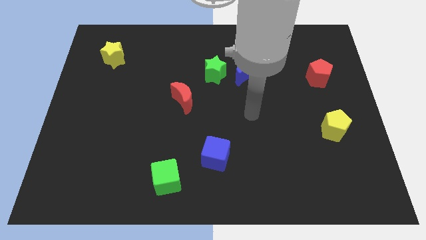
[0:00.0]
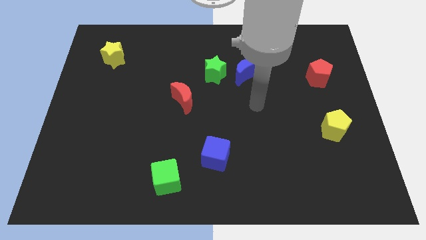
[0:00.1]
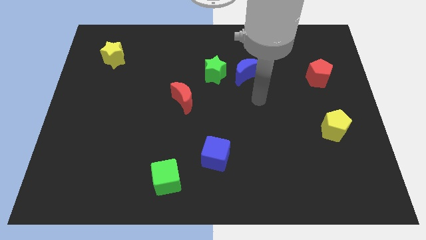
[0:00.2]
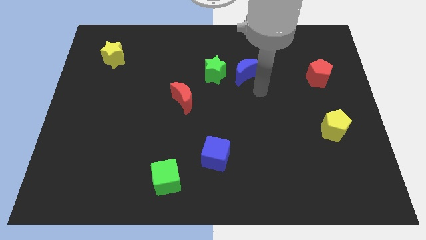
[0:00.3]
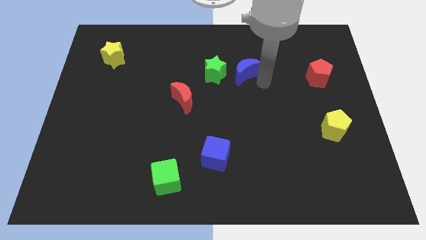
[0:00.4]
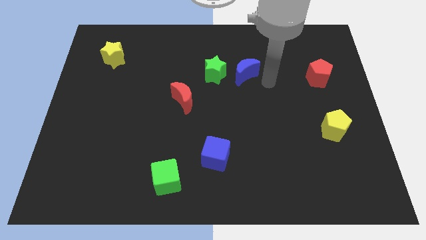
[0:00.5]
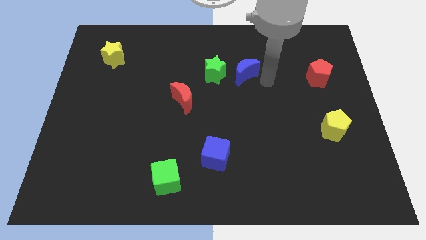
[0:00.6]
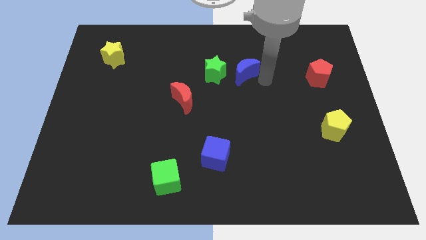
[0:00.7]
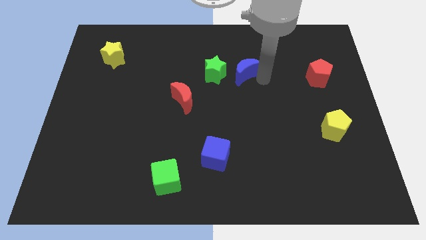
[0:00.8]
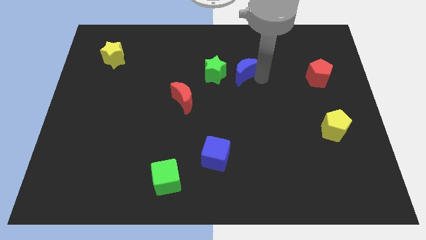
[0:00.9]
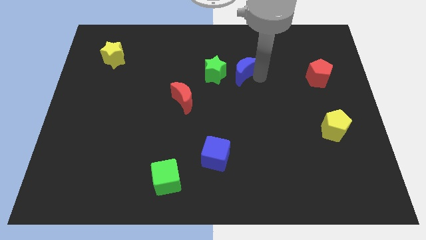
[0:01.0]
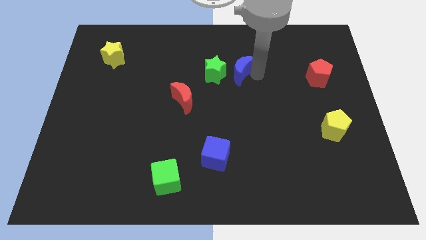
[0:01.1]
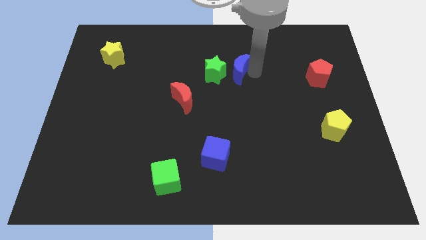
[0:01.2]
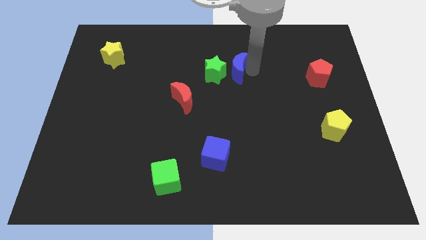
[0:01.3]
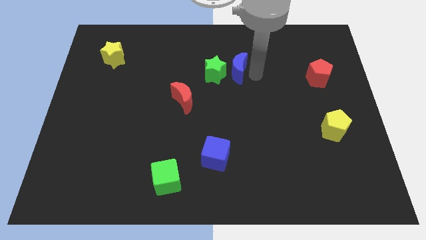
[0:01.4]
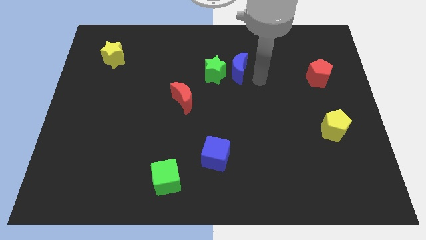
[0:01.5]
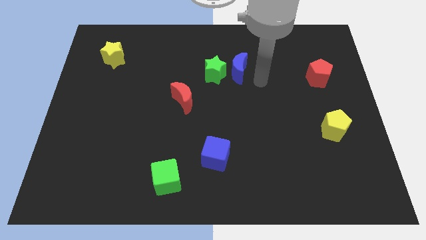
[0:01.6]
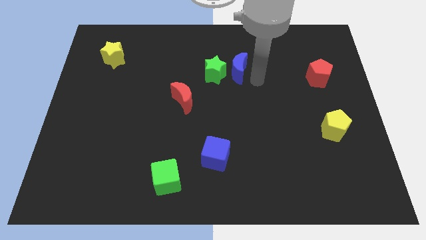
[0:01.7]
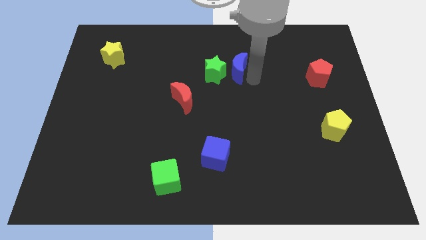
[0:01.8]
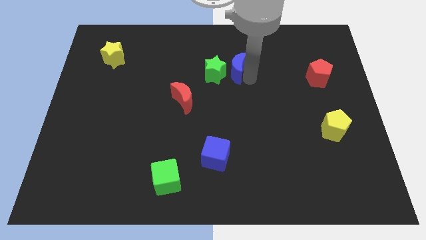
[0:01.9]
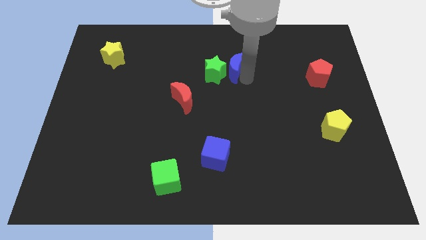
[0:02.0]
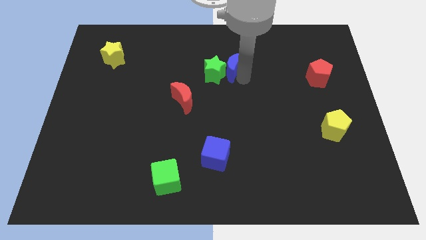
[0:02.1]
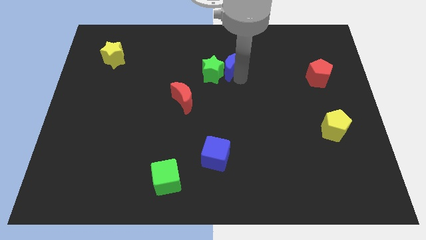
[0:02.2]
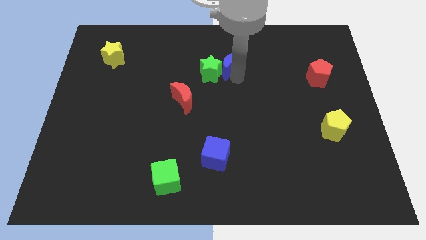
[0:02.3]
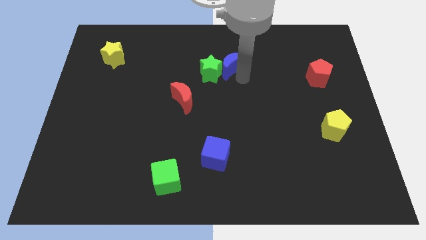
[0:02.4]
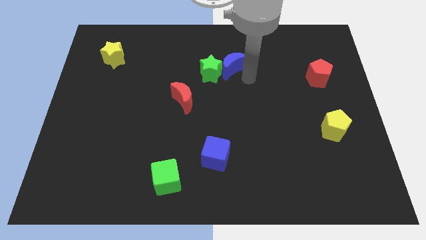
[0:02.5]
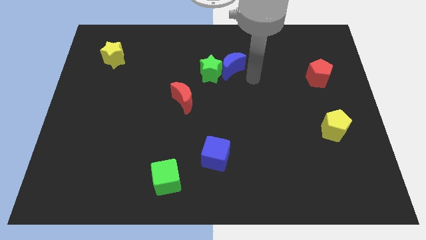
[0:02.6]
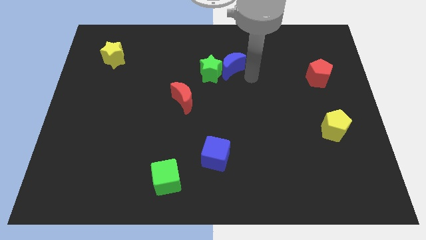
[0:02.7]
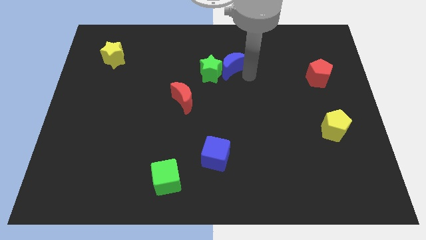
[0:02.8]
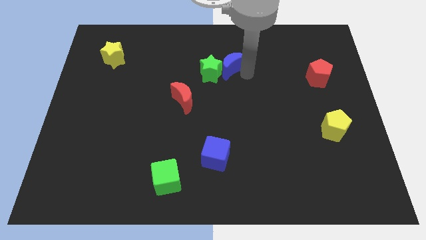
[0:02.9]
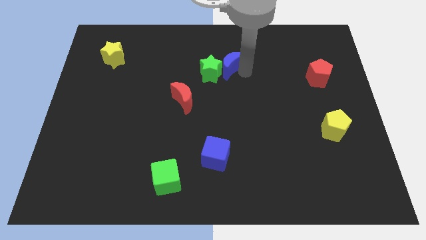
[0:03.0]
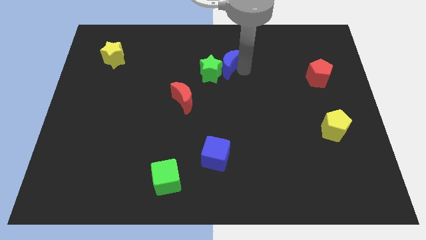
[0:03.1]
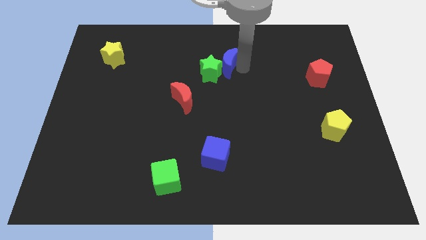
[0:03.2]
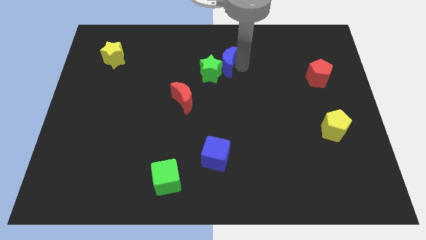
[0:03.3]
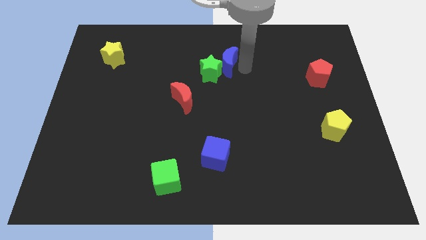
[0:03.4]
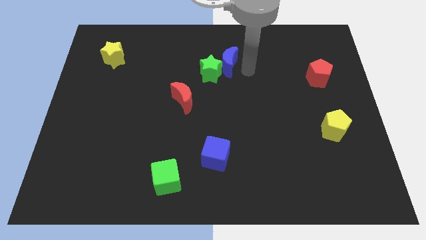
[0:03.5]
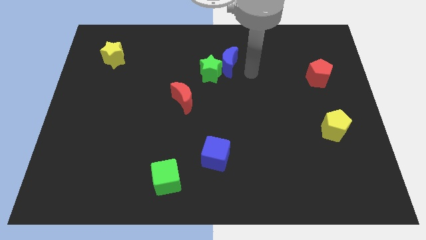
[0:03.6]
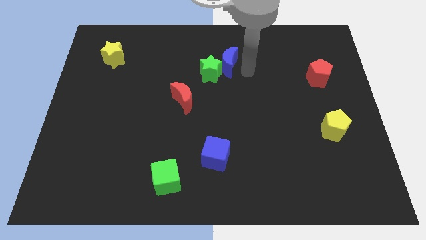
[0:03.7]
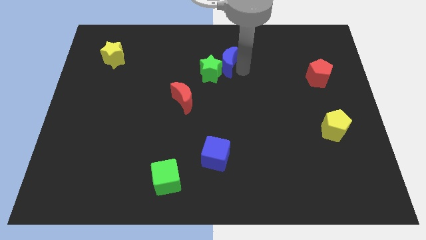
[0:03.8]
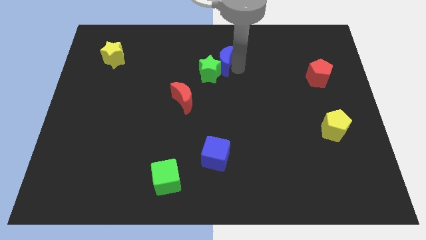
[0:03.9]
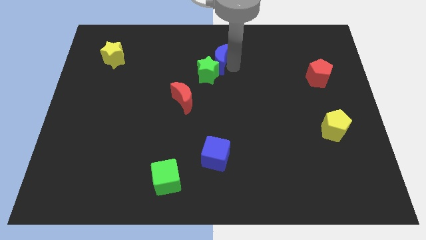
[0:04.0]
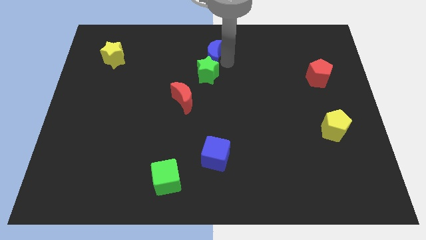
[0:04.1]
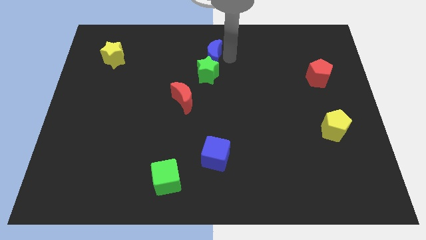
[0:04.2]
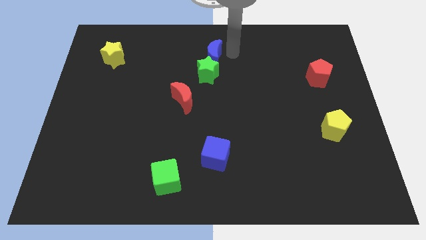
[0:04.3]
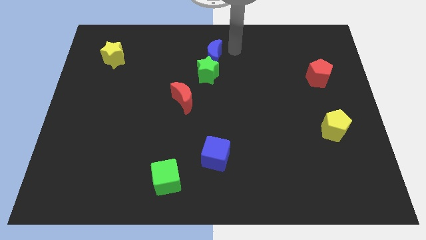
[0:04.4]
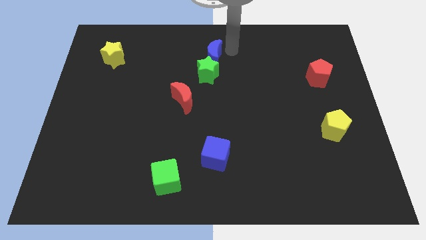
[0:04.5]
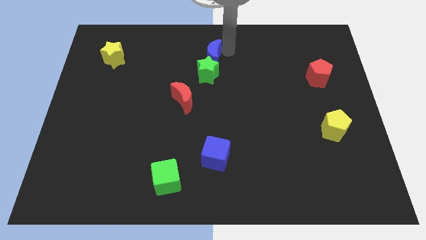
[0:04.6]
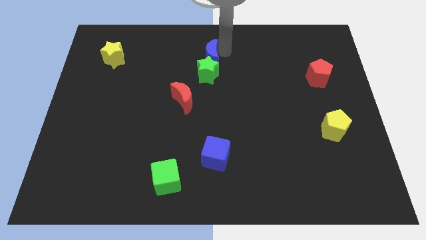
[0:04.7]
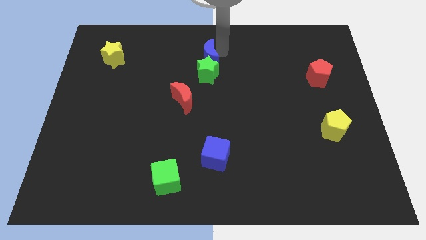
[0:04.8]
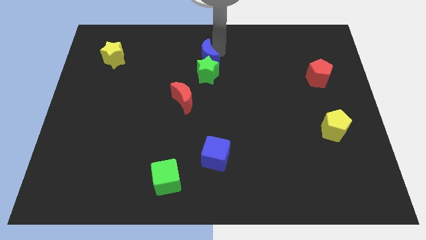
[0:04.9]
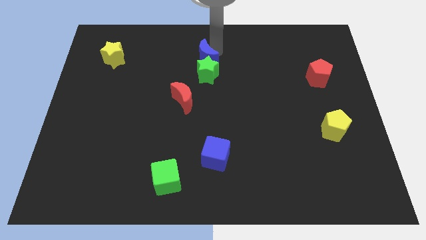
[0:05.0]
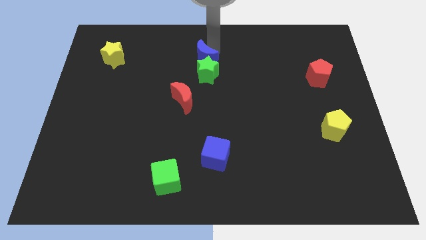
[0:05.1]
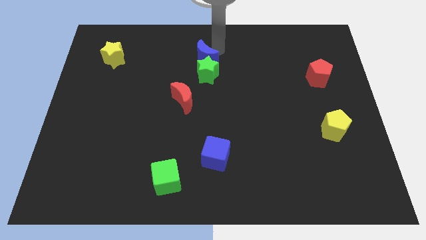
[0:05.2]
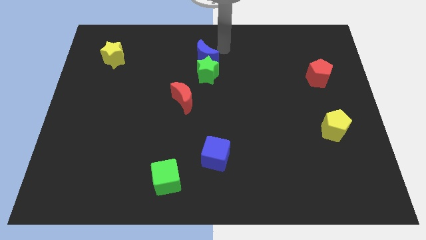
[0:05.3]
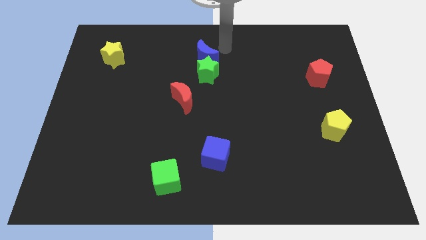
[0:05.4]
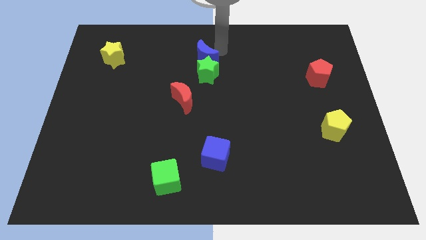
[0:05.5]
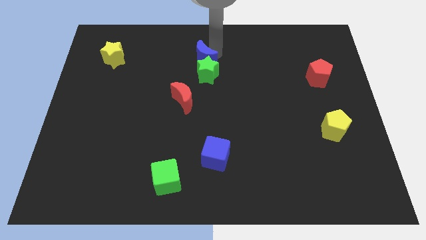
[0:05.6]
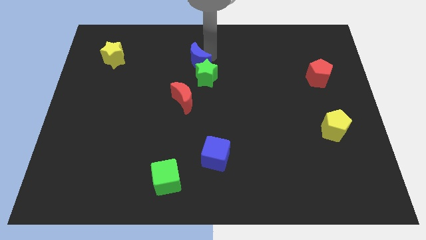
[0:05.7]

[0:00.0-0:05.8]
move the blue moon to the top side of the red moon

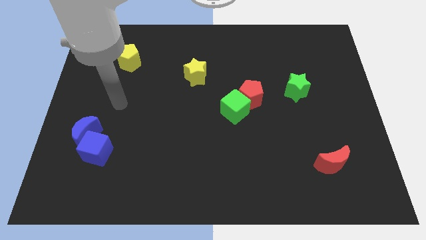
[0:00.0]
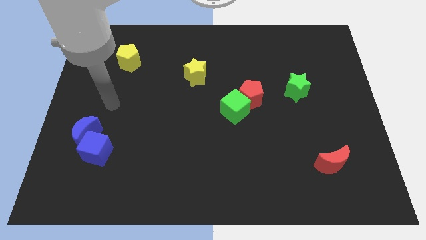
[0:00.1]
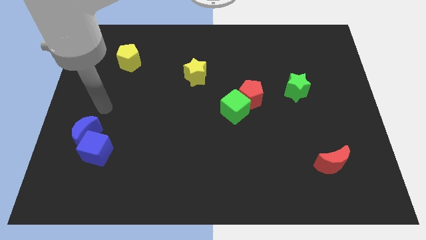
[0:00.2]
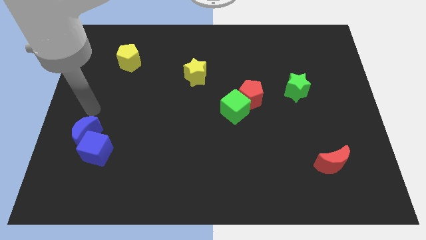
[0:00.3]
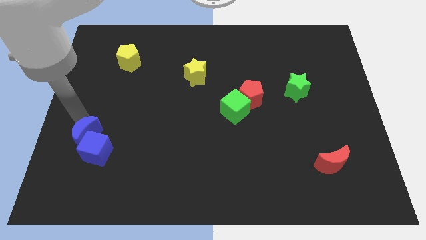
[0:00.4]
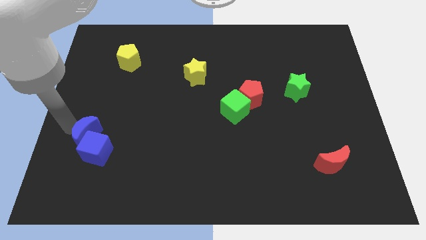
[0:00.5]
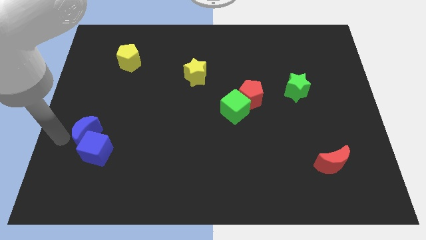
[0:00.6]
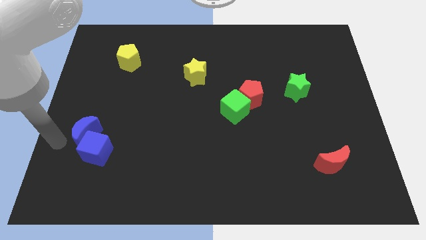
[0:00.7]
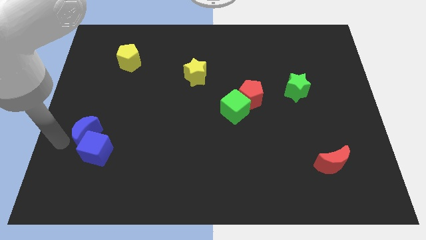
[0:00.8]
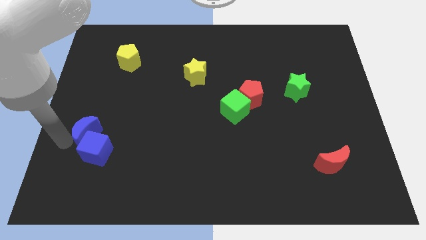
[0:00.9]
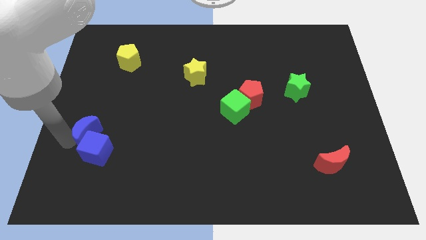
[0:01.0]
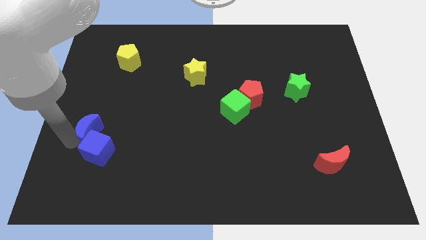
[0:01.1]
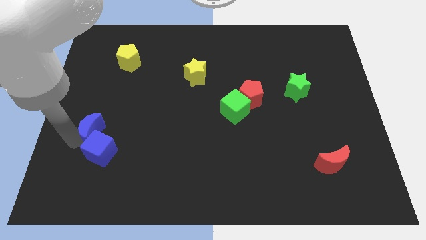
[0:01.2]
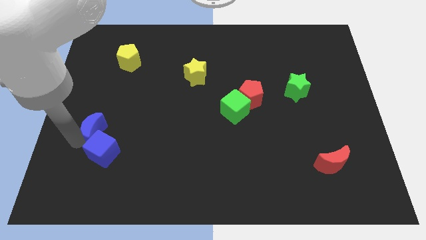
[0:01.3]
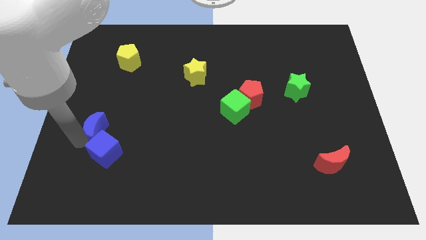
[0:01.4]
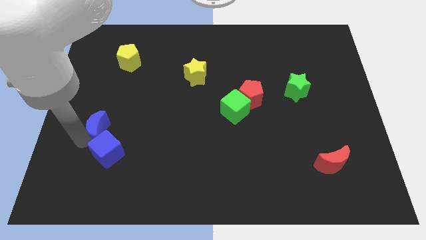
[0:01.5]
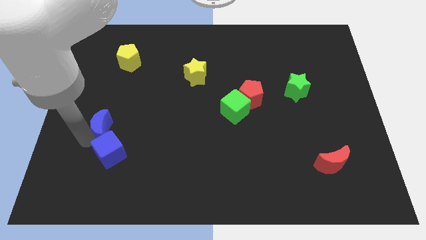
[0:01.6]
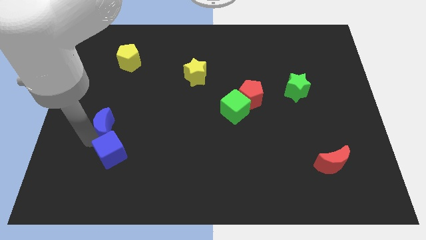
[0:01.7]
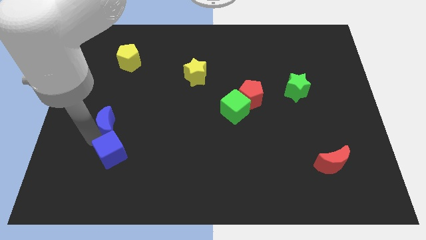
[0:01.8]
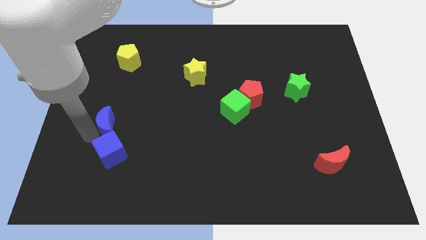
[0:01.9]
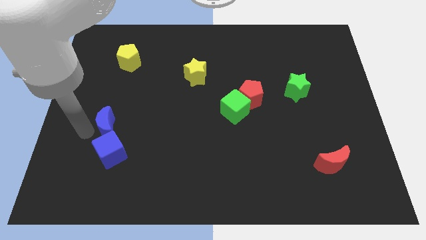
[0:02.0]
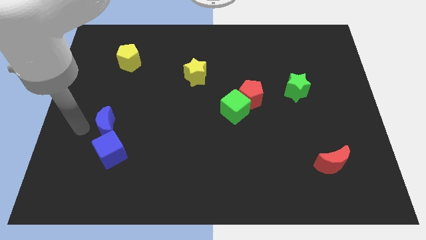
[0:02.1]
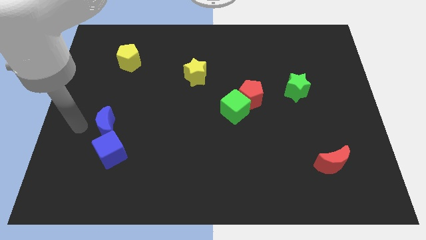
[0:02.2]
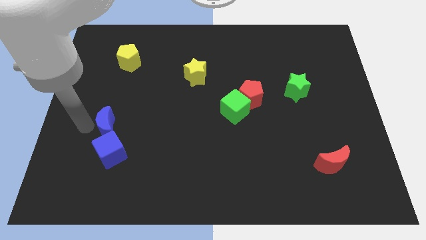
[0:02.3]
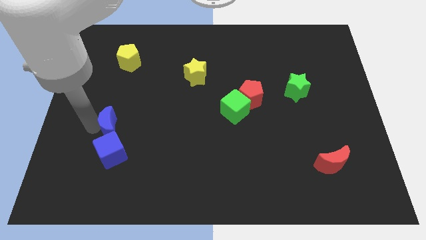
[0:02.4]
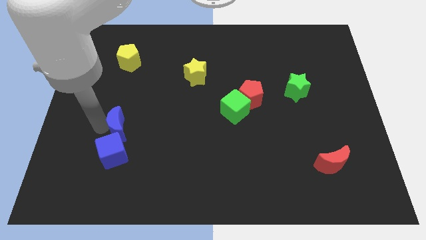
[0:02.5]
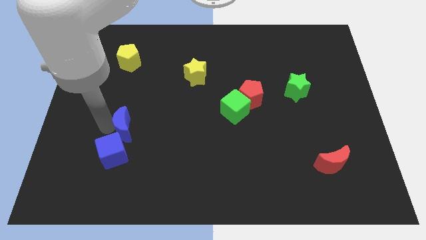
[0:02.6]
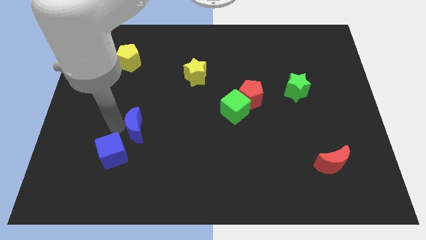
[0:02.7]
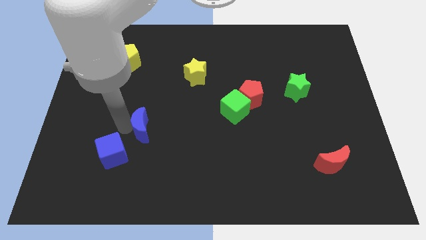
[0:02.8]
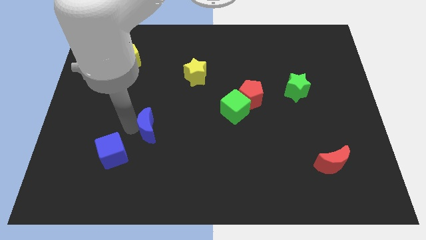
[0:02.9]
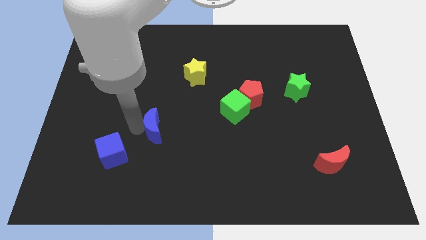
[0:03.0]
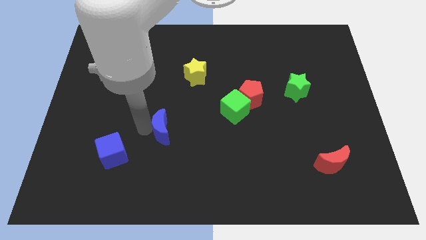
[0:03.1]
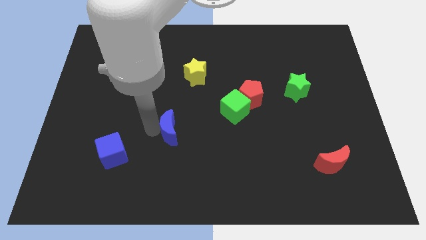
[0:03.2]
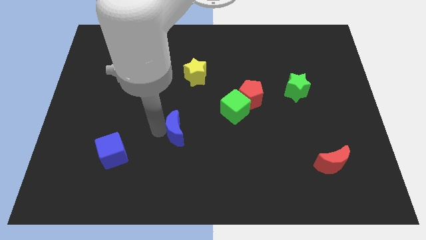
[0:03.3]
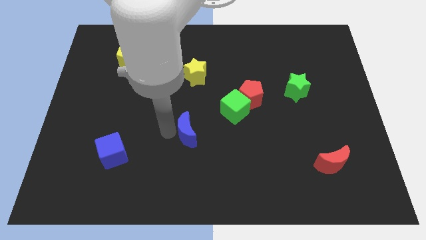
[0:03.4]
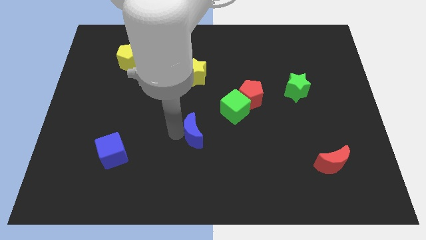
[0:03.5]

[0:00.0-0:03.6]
slide the blue moon to the bottom left of the green cube
